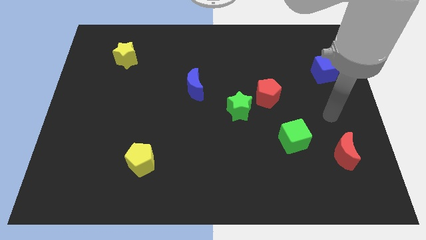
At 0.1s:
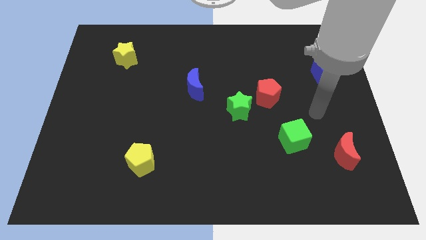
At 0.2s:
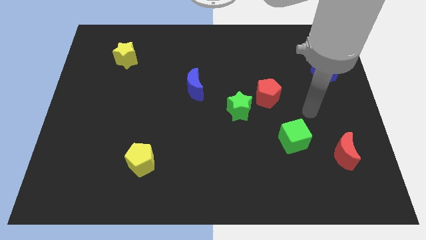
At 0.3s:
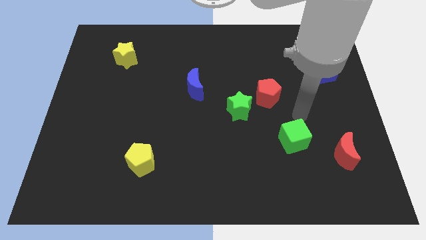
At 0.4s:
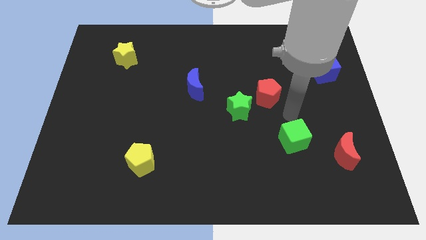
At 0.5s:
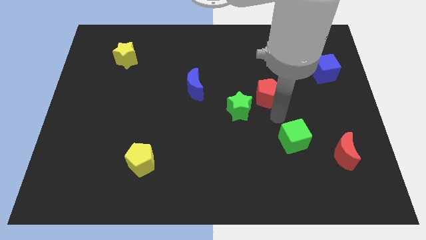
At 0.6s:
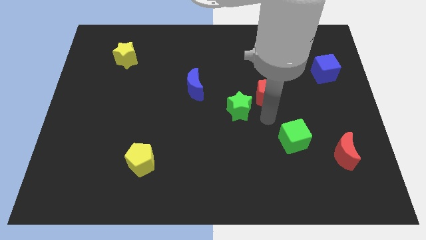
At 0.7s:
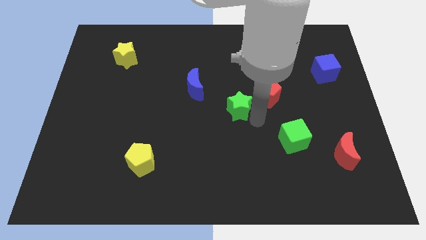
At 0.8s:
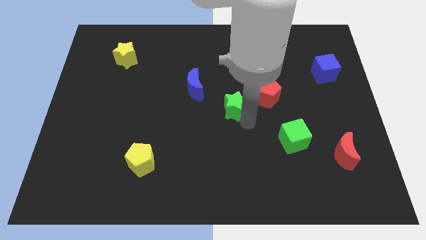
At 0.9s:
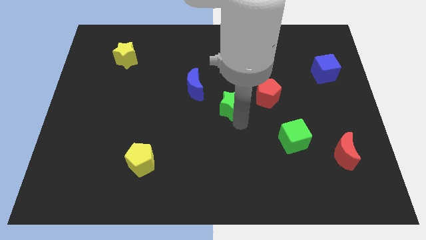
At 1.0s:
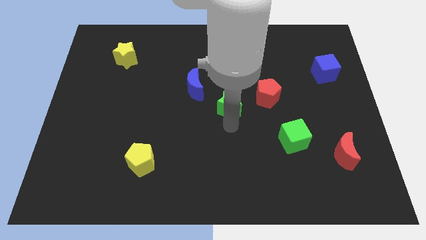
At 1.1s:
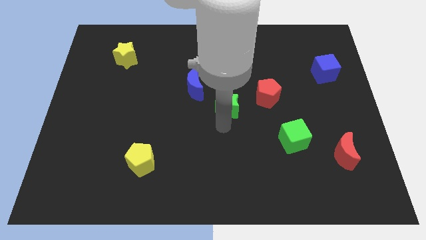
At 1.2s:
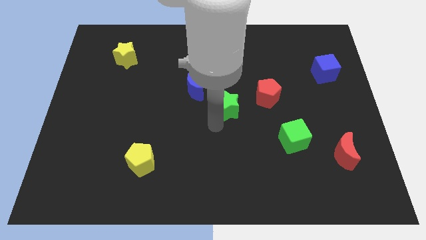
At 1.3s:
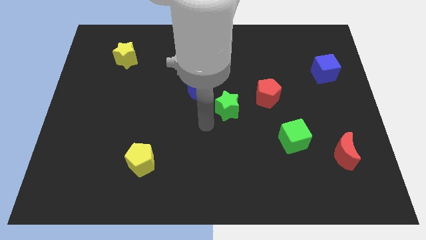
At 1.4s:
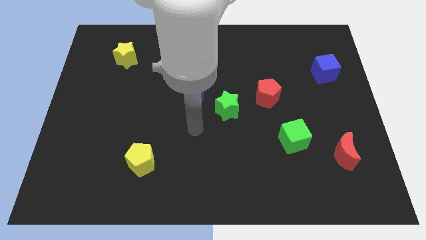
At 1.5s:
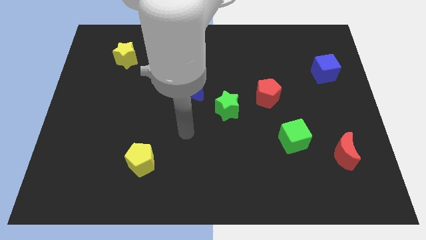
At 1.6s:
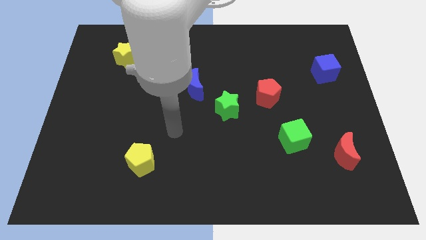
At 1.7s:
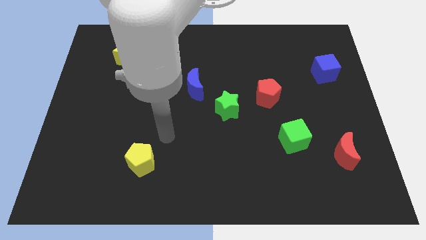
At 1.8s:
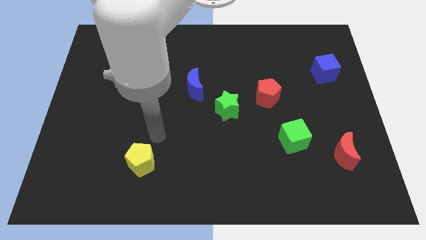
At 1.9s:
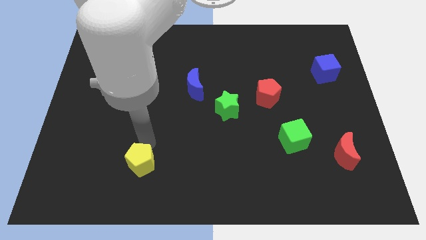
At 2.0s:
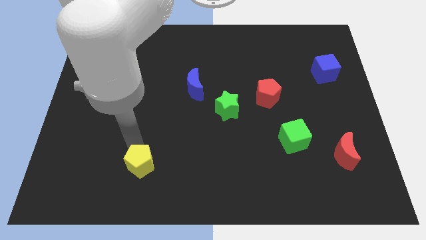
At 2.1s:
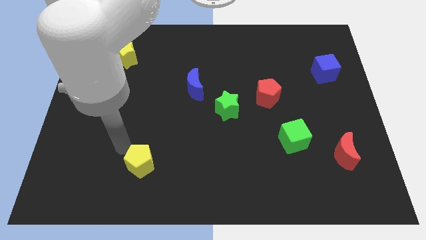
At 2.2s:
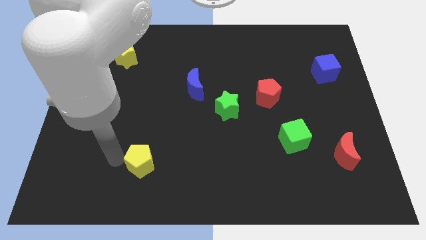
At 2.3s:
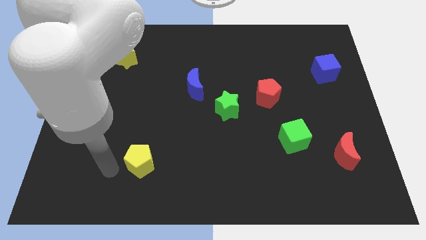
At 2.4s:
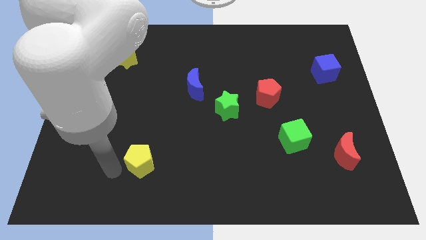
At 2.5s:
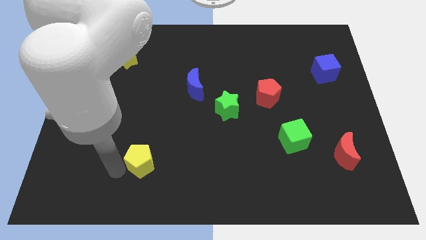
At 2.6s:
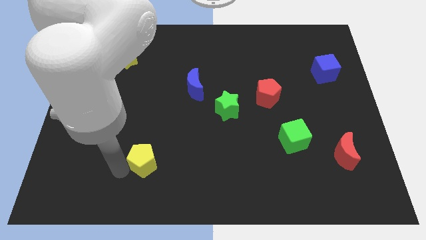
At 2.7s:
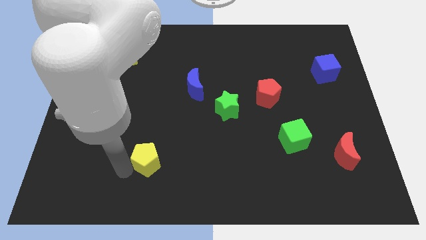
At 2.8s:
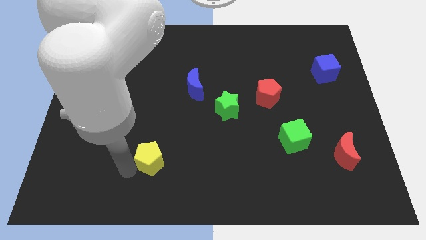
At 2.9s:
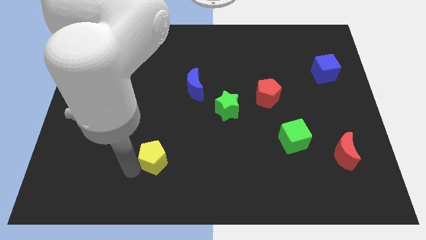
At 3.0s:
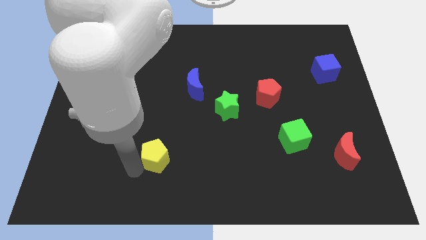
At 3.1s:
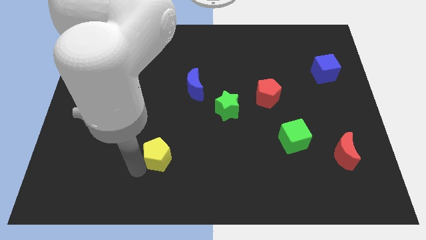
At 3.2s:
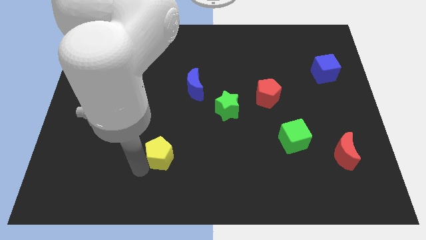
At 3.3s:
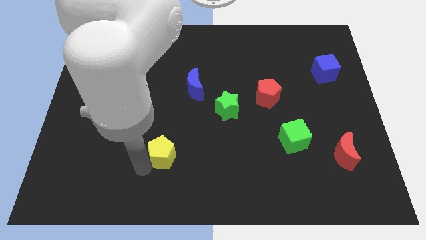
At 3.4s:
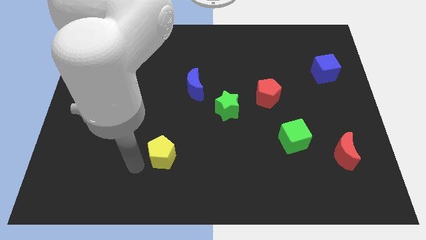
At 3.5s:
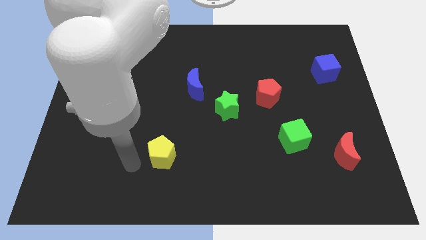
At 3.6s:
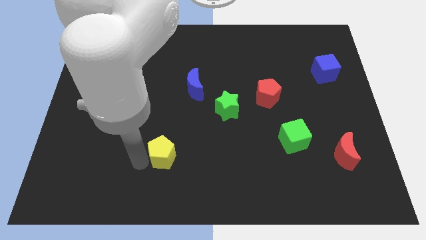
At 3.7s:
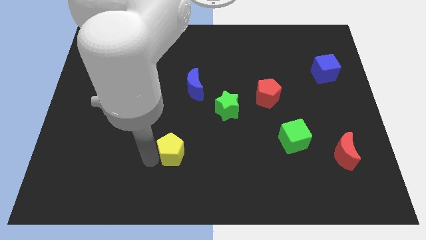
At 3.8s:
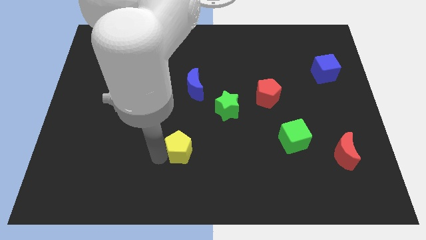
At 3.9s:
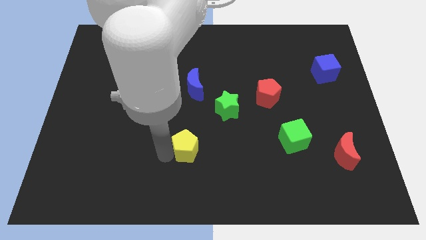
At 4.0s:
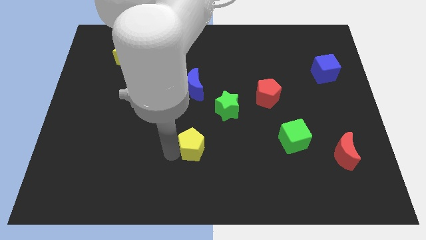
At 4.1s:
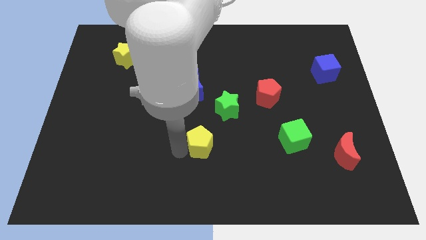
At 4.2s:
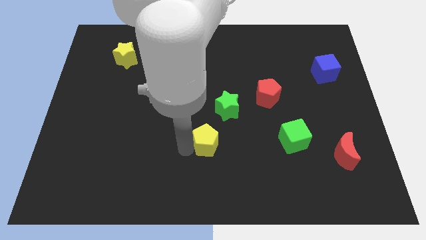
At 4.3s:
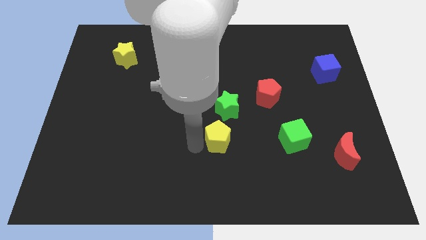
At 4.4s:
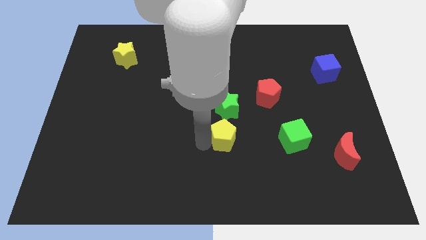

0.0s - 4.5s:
put the yellow pentagon just left of the green cube

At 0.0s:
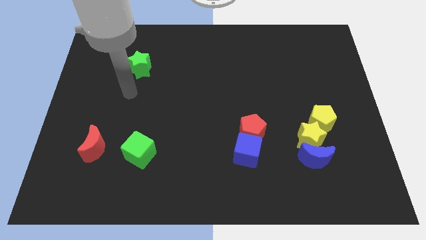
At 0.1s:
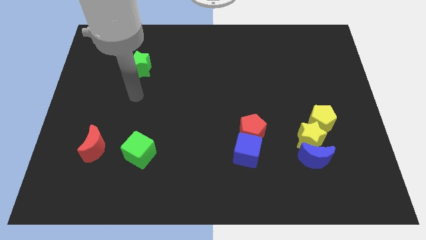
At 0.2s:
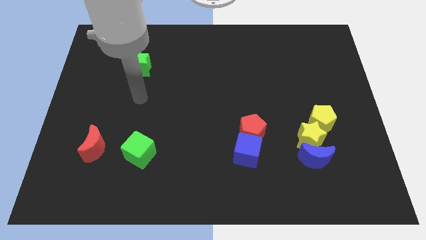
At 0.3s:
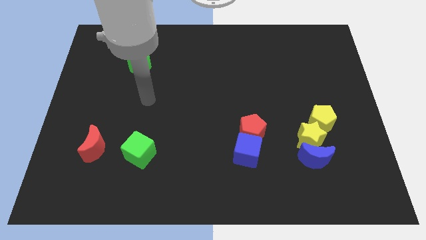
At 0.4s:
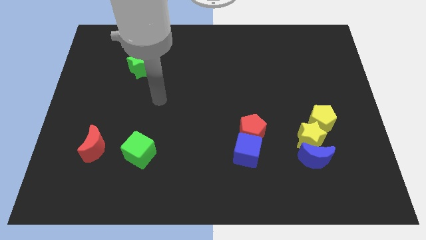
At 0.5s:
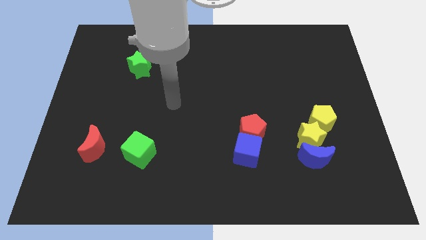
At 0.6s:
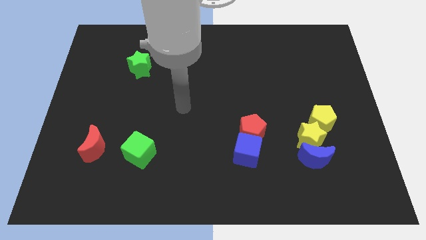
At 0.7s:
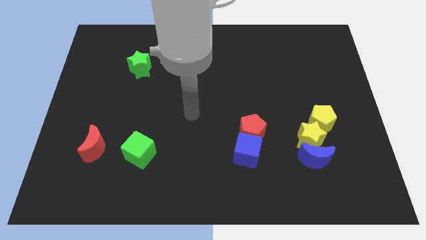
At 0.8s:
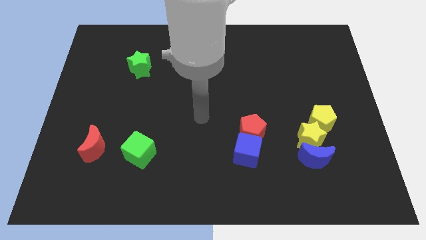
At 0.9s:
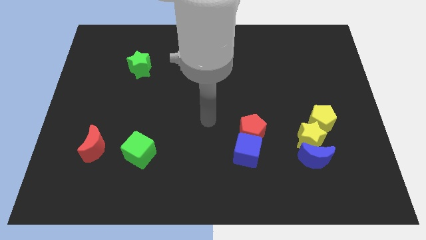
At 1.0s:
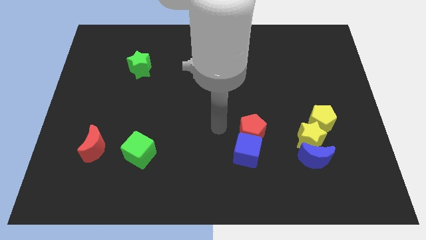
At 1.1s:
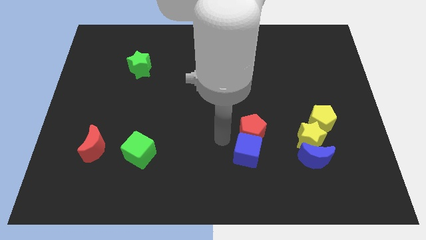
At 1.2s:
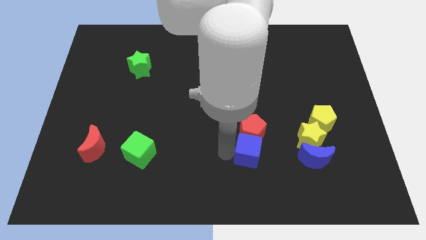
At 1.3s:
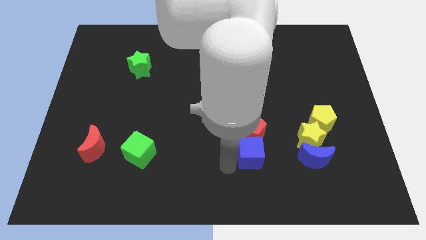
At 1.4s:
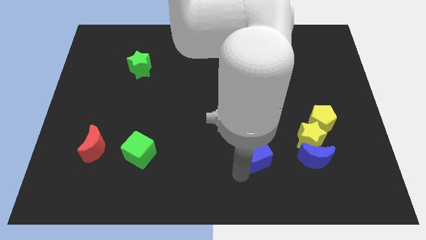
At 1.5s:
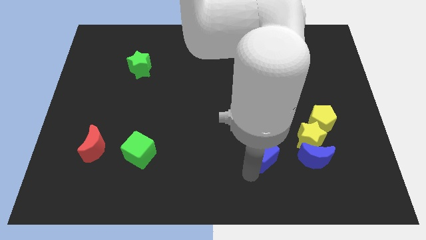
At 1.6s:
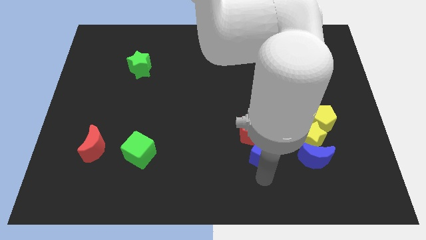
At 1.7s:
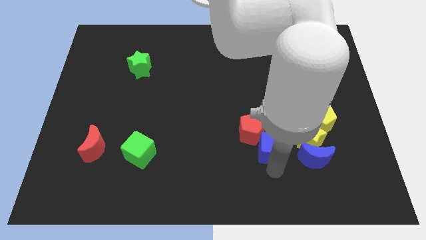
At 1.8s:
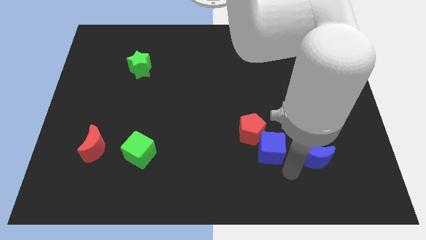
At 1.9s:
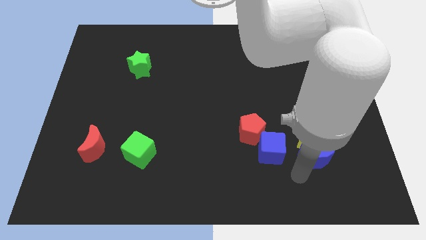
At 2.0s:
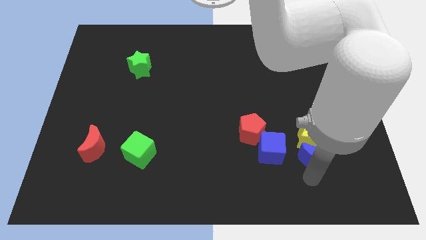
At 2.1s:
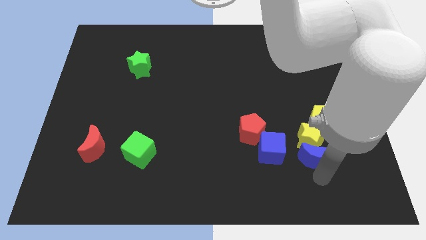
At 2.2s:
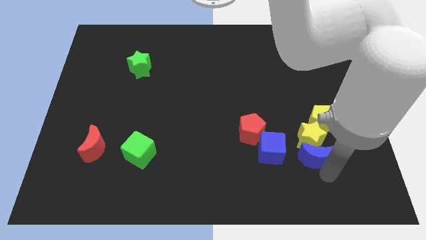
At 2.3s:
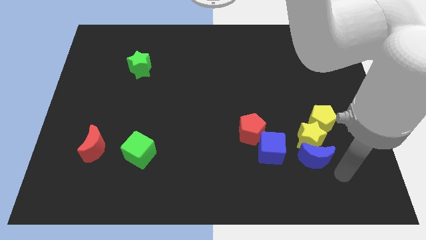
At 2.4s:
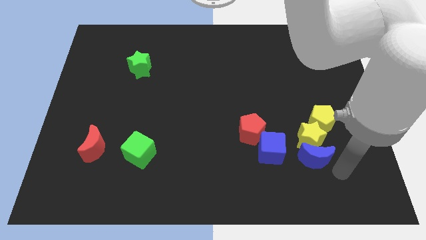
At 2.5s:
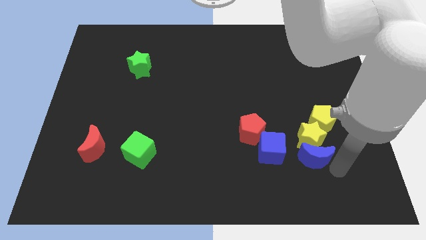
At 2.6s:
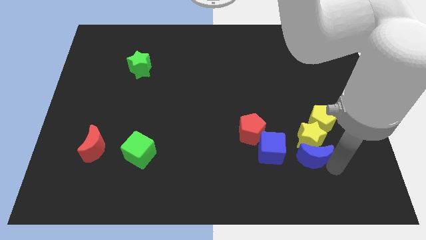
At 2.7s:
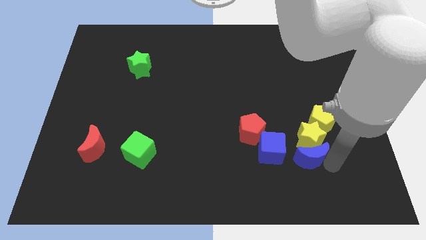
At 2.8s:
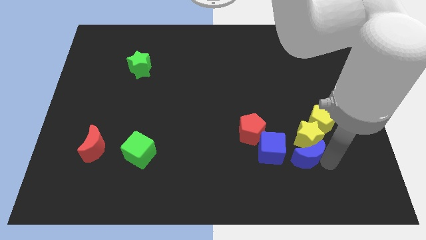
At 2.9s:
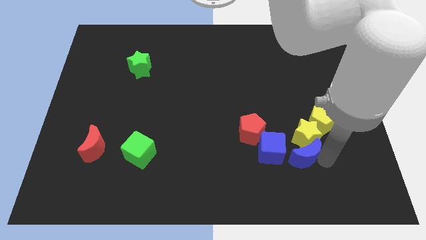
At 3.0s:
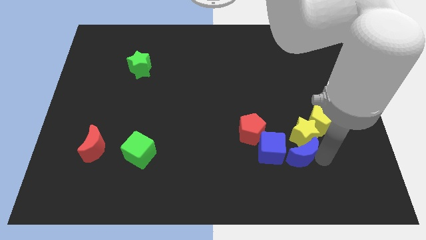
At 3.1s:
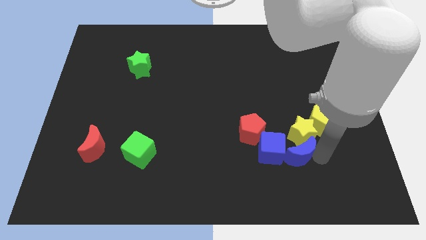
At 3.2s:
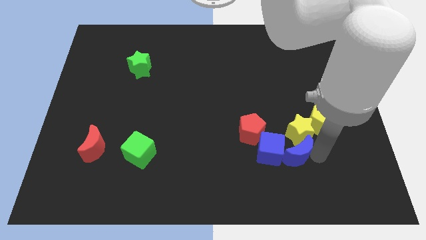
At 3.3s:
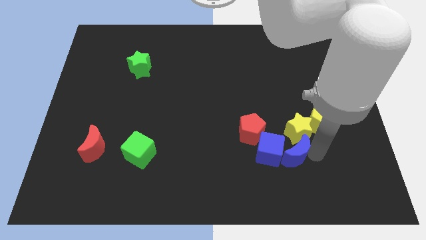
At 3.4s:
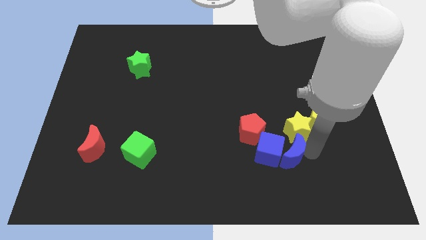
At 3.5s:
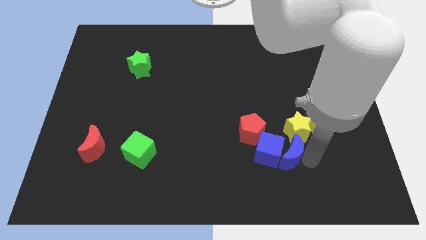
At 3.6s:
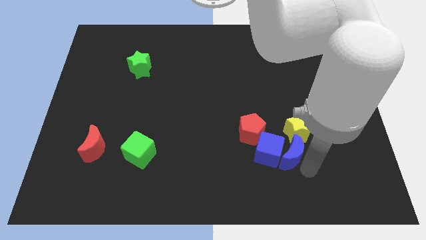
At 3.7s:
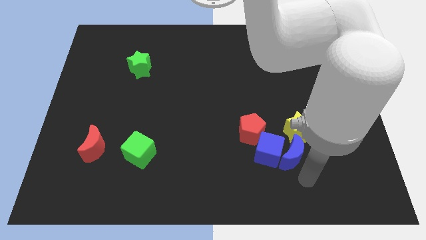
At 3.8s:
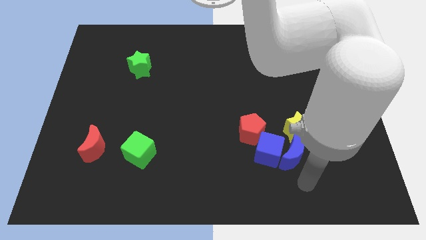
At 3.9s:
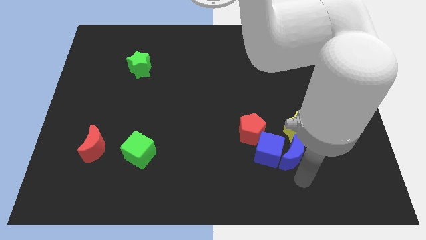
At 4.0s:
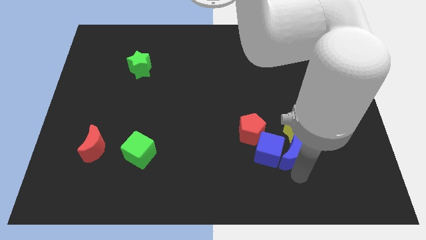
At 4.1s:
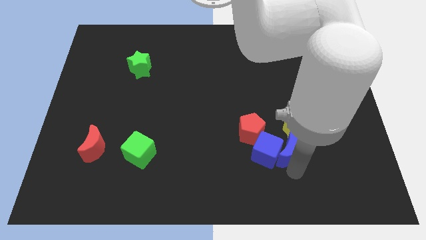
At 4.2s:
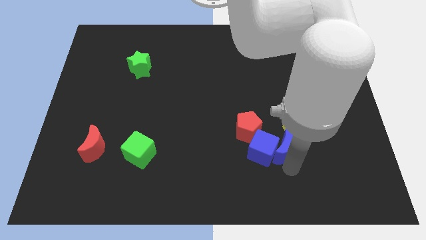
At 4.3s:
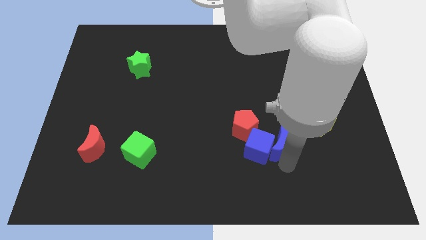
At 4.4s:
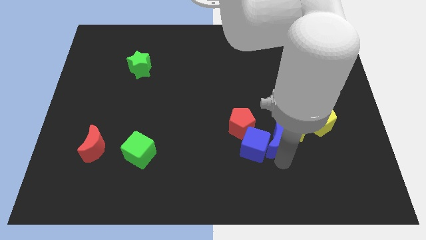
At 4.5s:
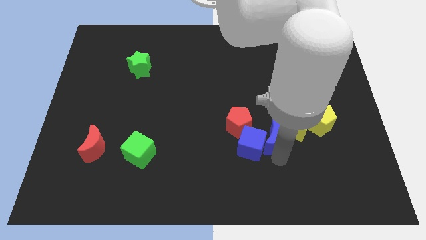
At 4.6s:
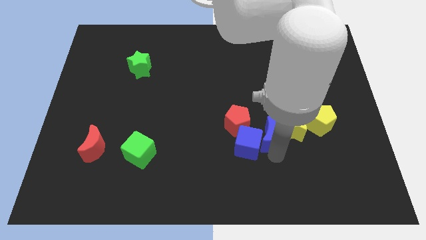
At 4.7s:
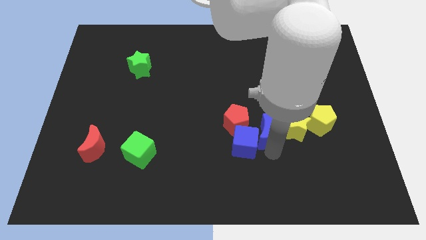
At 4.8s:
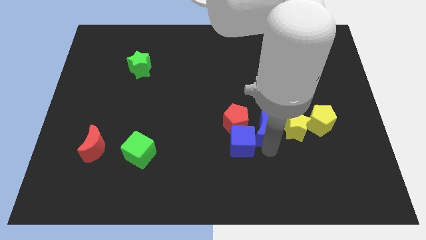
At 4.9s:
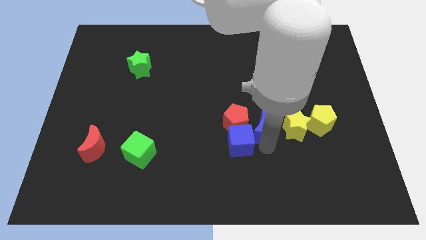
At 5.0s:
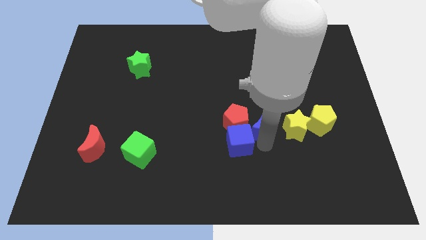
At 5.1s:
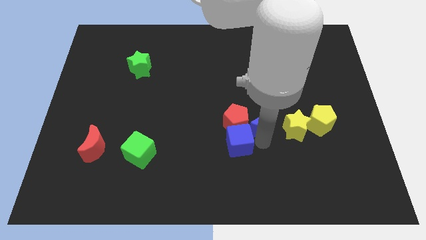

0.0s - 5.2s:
put the blue moon diagonally up and to the right of the red pentagon
